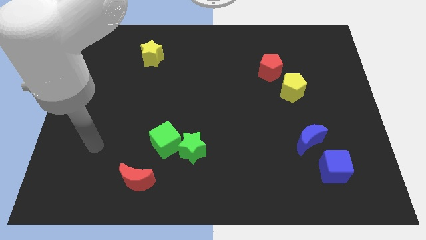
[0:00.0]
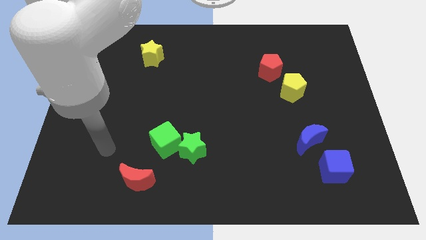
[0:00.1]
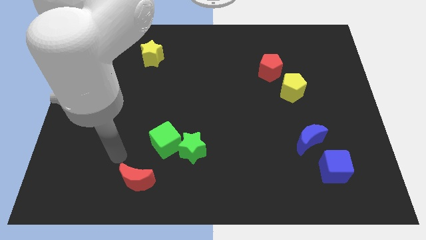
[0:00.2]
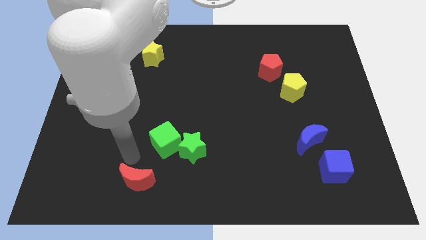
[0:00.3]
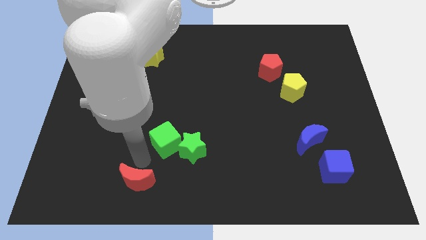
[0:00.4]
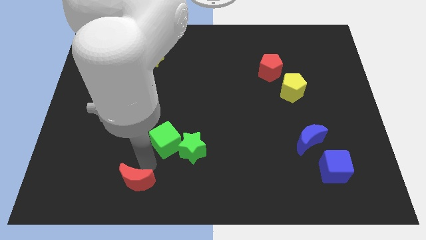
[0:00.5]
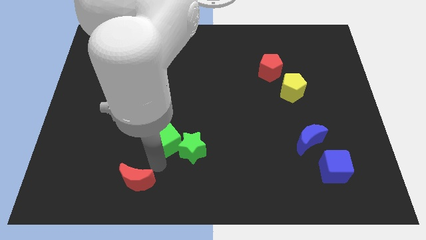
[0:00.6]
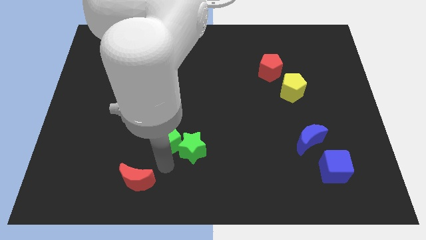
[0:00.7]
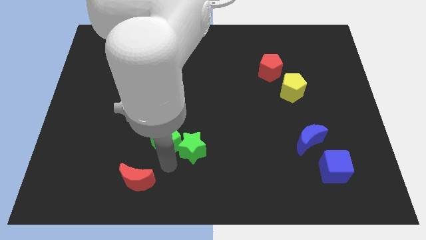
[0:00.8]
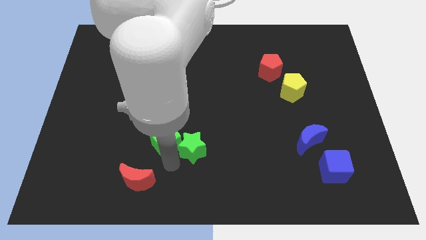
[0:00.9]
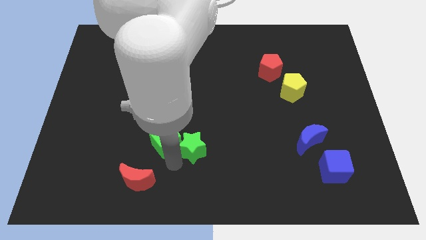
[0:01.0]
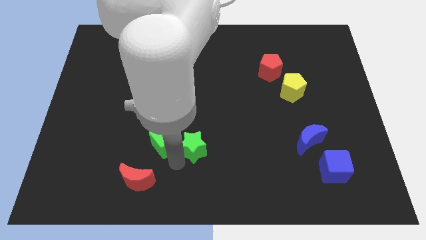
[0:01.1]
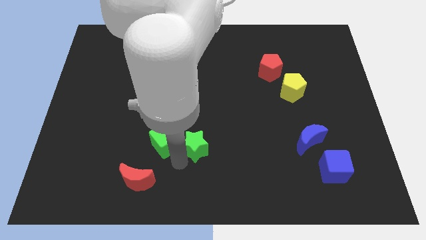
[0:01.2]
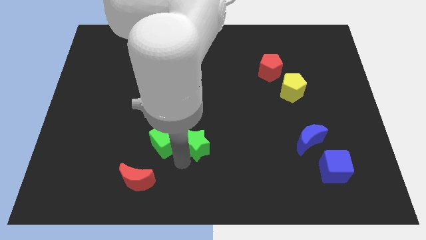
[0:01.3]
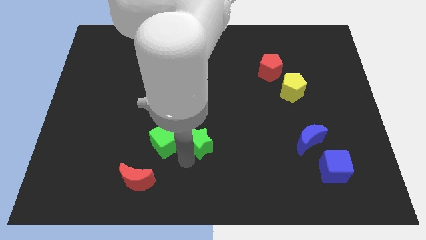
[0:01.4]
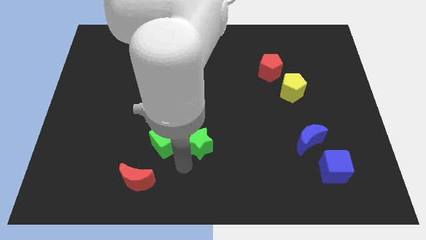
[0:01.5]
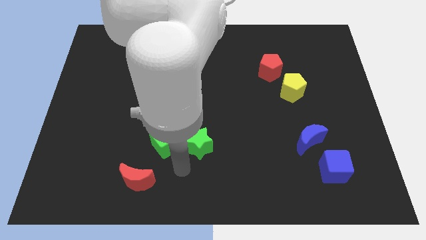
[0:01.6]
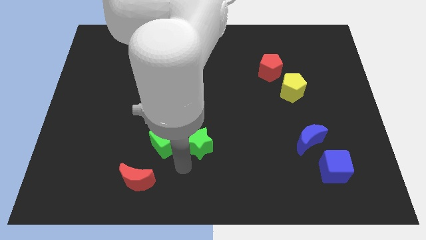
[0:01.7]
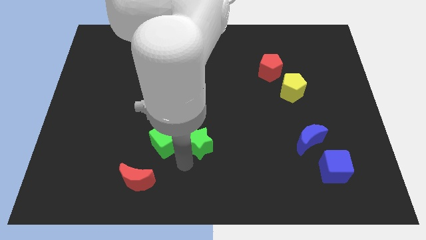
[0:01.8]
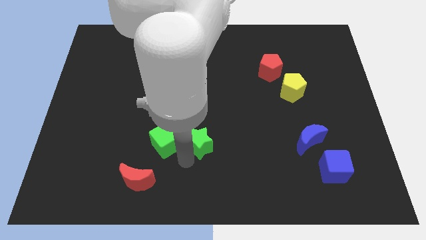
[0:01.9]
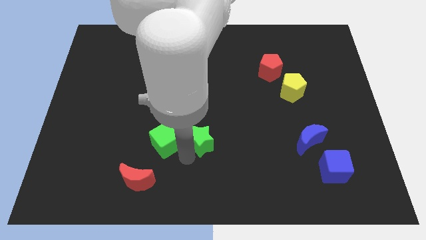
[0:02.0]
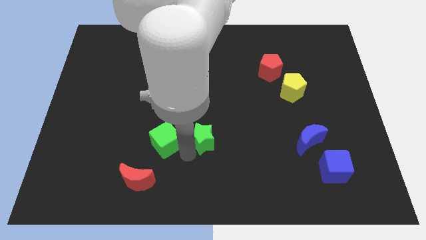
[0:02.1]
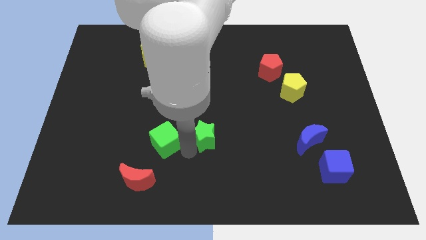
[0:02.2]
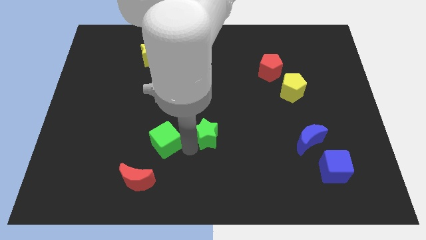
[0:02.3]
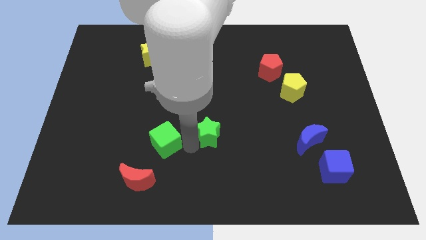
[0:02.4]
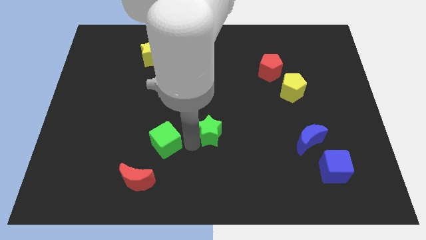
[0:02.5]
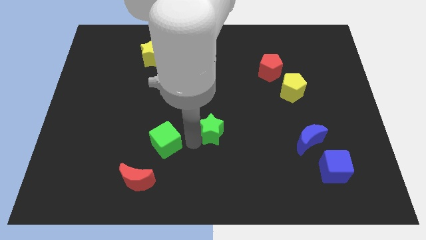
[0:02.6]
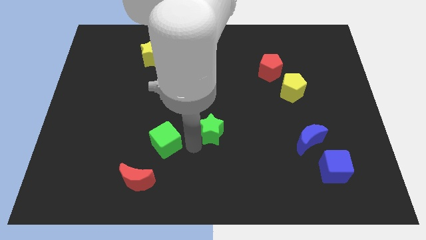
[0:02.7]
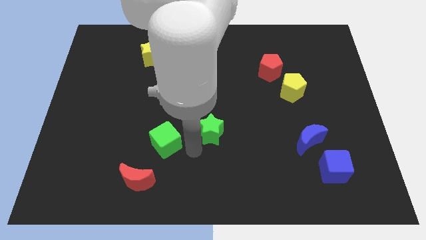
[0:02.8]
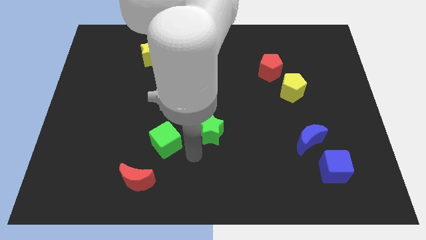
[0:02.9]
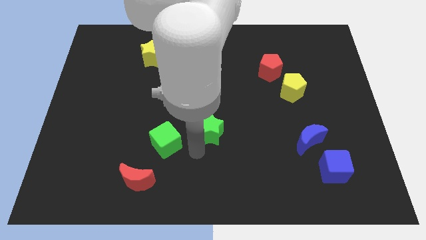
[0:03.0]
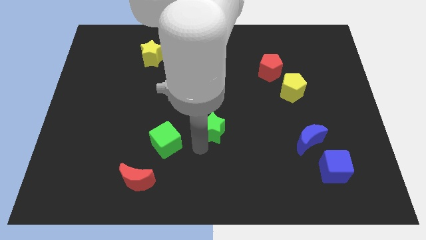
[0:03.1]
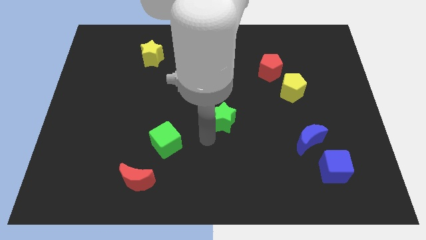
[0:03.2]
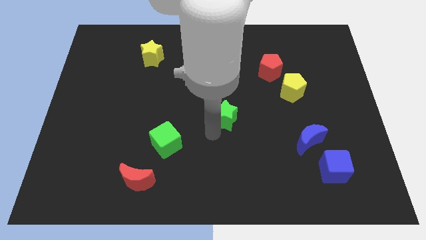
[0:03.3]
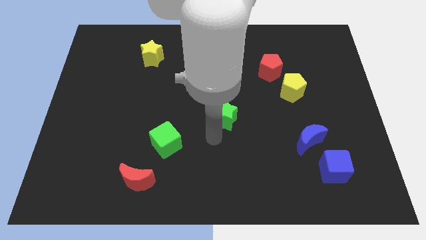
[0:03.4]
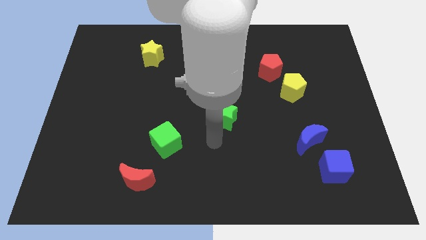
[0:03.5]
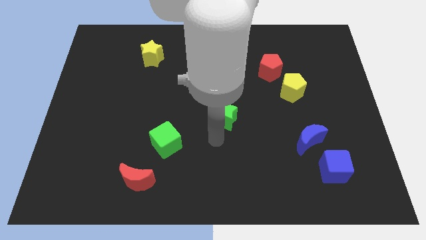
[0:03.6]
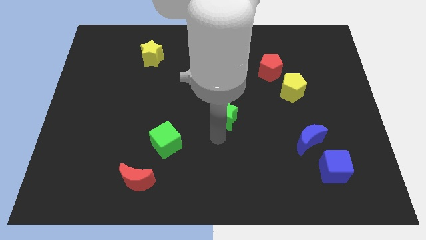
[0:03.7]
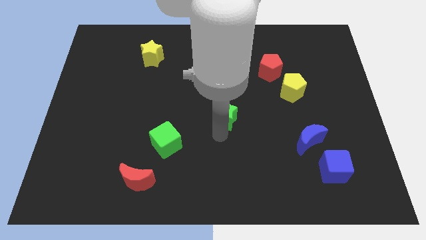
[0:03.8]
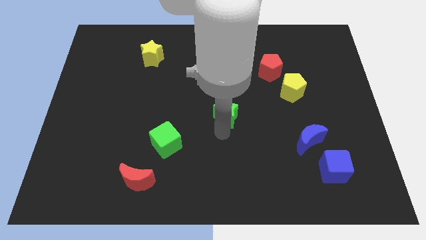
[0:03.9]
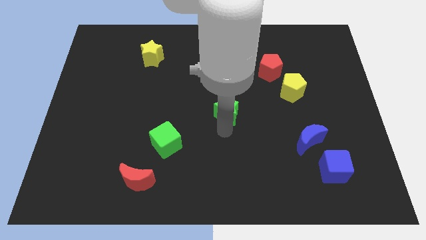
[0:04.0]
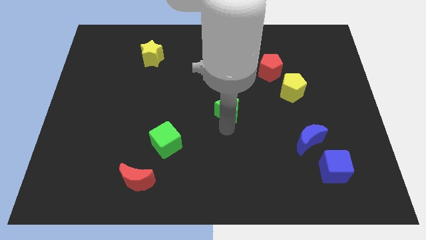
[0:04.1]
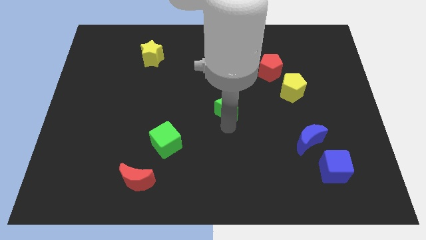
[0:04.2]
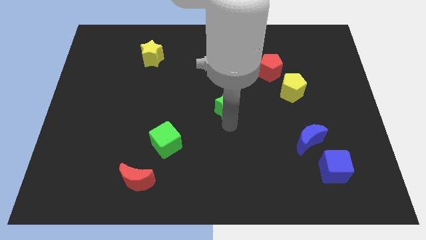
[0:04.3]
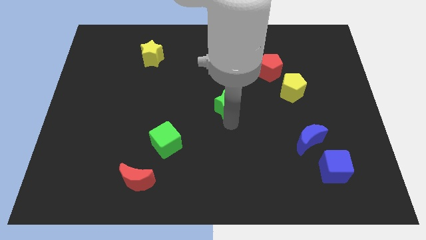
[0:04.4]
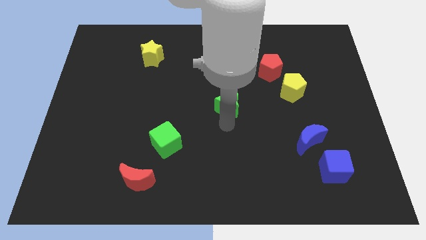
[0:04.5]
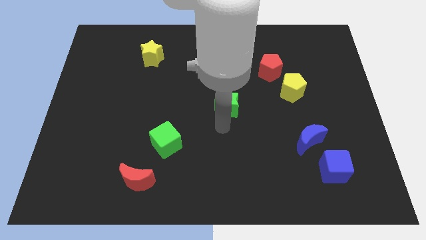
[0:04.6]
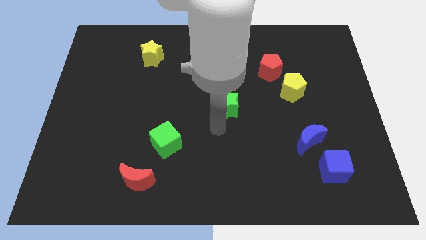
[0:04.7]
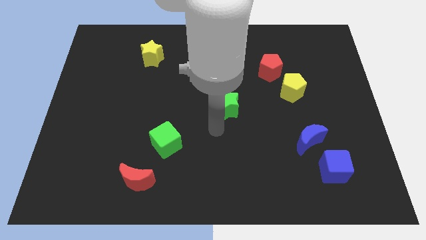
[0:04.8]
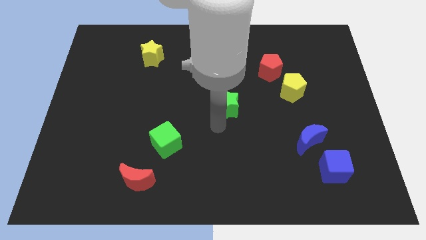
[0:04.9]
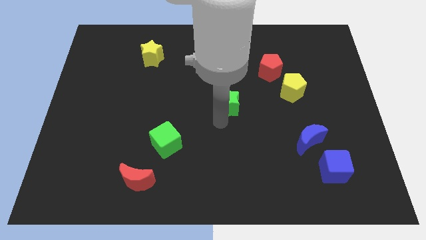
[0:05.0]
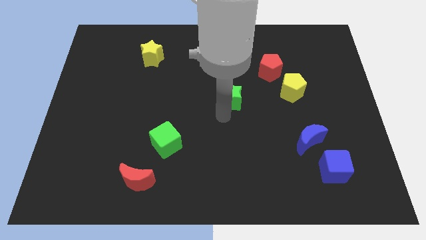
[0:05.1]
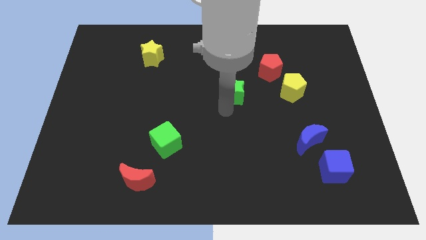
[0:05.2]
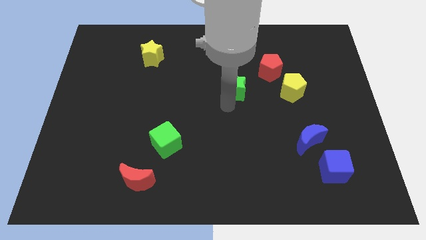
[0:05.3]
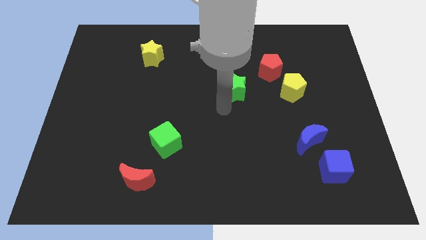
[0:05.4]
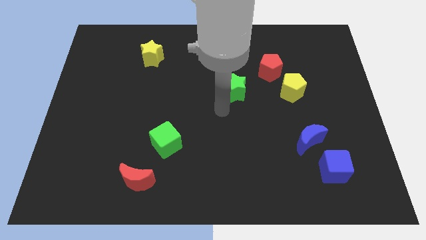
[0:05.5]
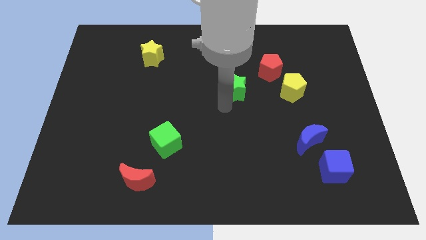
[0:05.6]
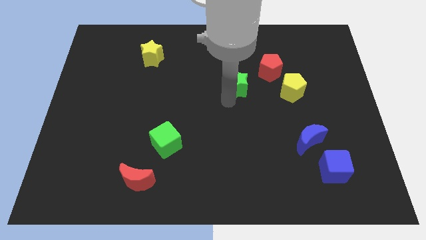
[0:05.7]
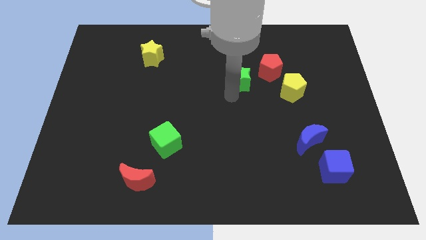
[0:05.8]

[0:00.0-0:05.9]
push the green star diagonally up and to the right

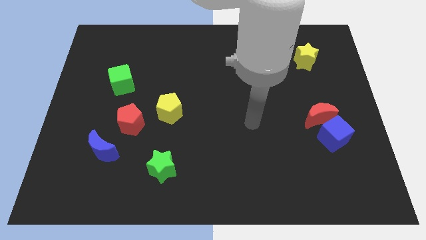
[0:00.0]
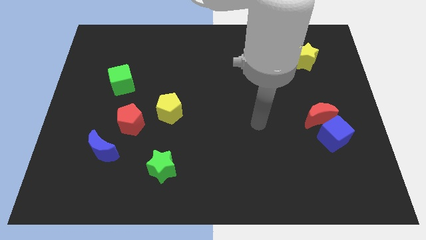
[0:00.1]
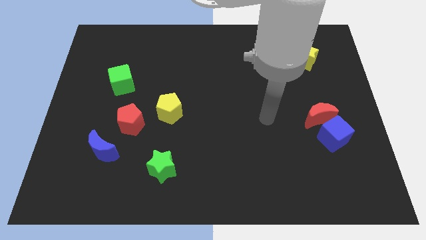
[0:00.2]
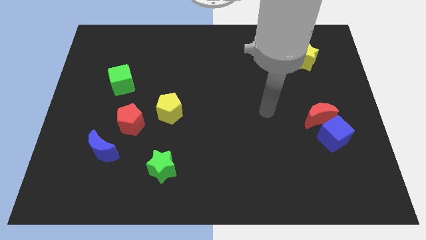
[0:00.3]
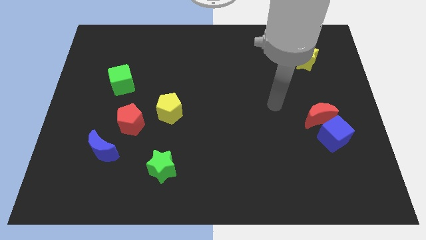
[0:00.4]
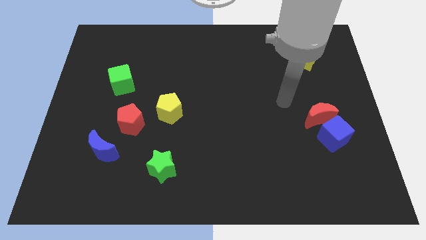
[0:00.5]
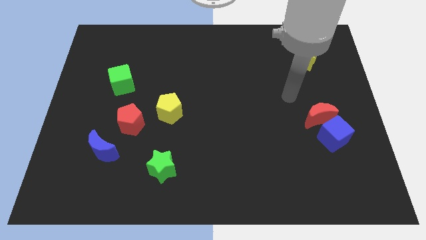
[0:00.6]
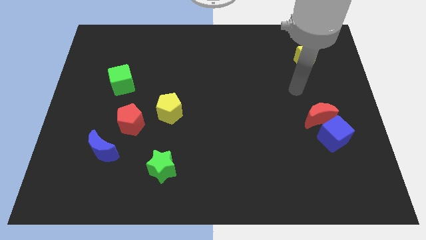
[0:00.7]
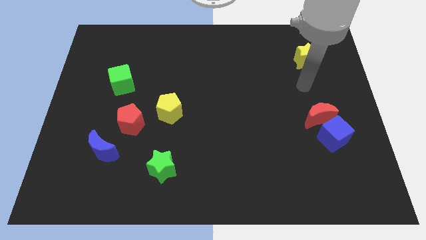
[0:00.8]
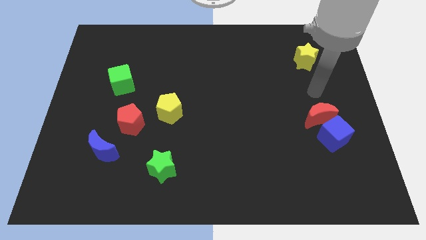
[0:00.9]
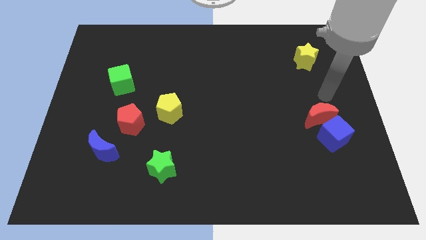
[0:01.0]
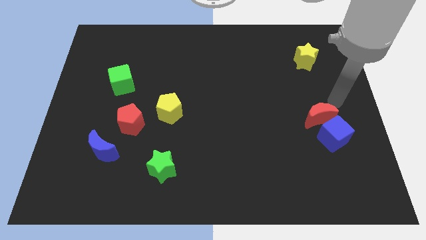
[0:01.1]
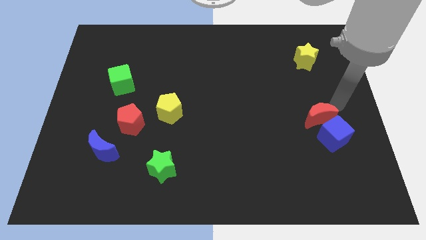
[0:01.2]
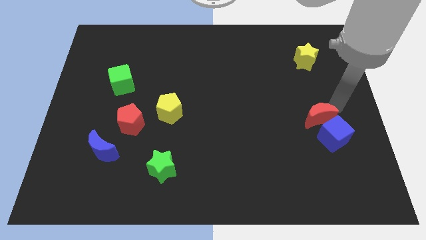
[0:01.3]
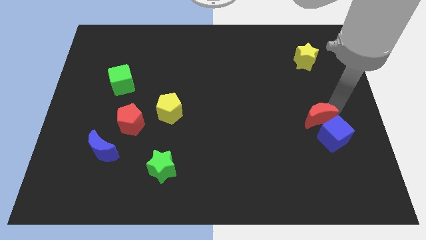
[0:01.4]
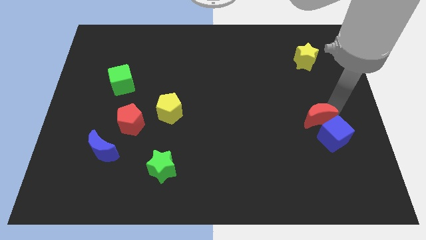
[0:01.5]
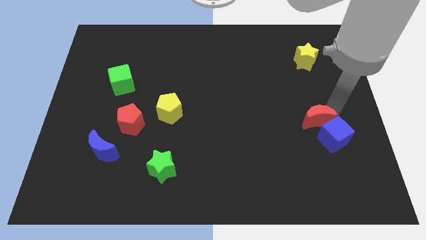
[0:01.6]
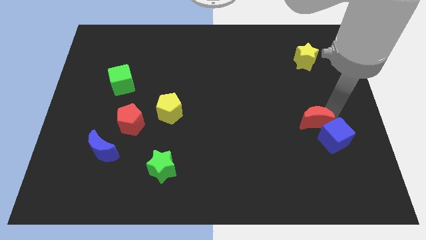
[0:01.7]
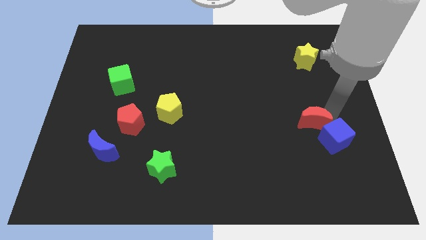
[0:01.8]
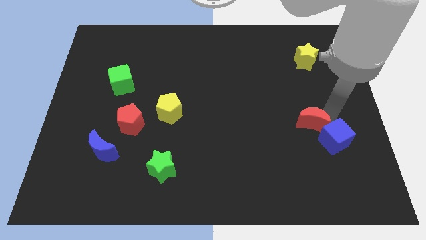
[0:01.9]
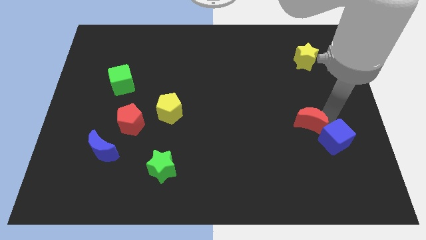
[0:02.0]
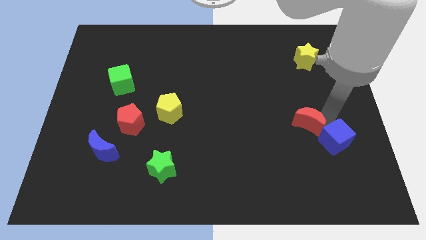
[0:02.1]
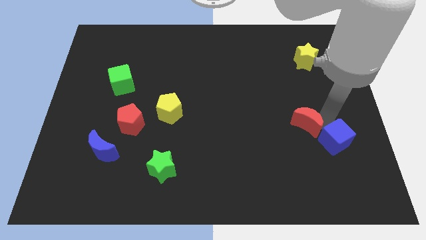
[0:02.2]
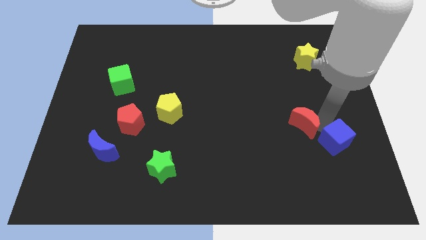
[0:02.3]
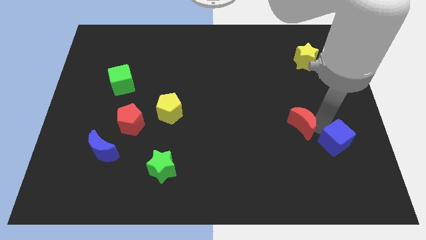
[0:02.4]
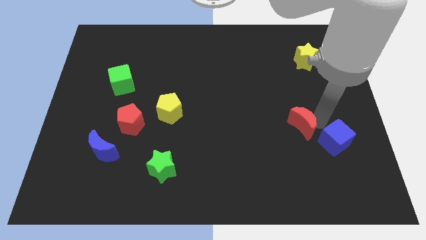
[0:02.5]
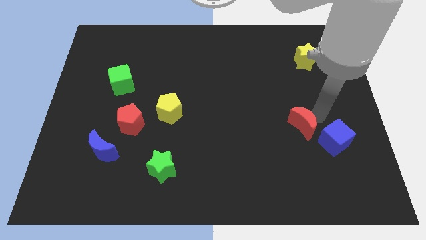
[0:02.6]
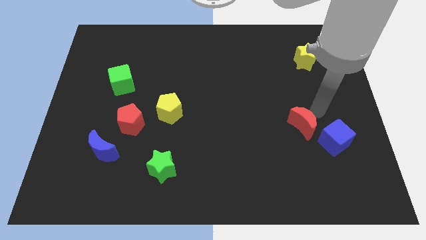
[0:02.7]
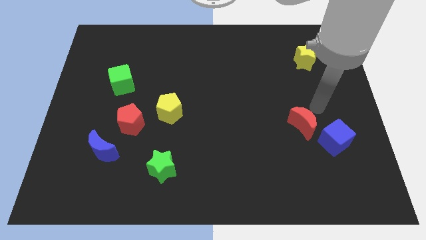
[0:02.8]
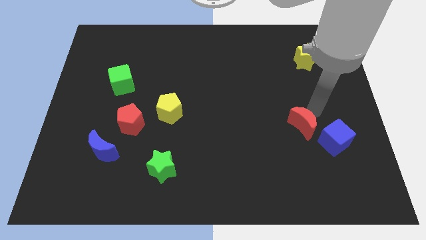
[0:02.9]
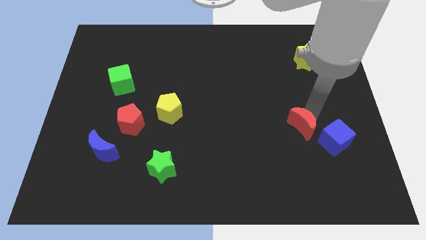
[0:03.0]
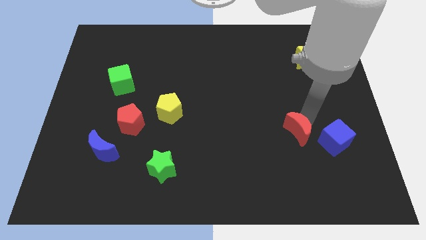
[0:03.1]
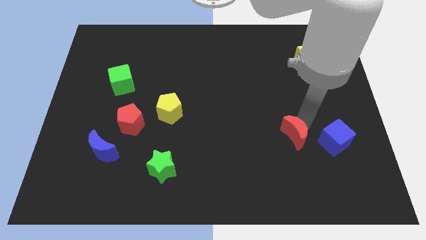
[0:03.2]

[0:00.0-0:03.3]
slide the red moon slightly downwards and left diagonally
